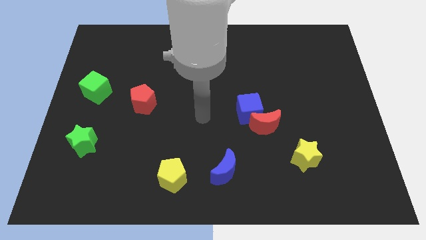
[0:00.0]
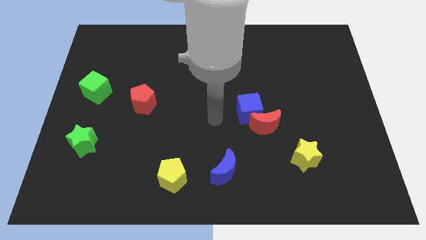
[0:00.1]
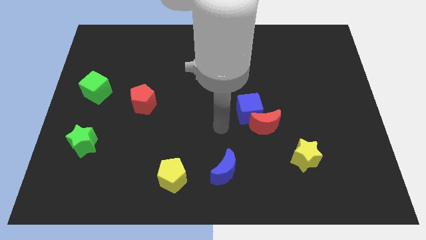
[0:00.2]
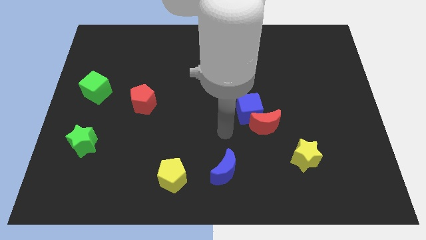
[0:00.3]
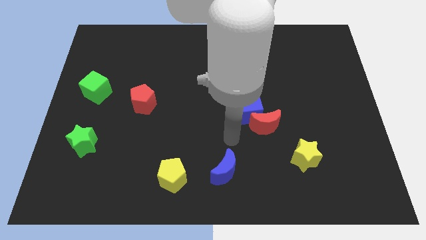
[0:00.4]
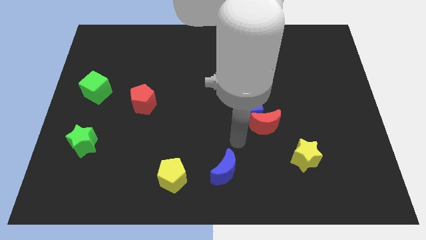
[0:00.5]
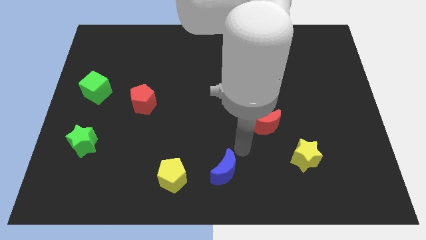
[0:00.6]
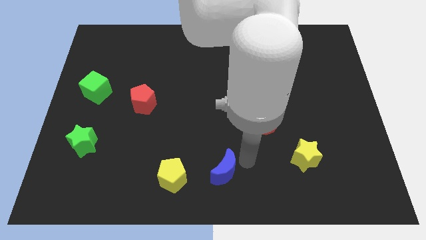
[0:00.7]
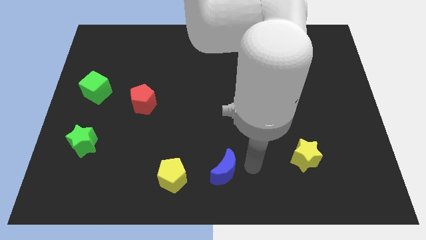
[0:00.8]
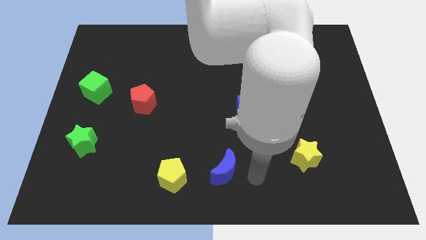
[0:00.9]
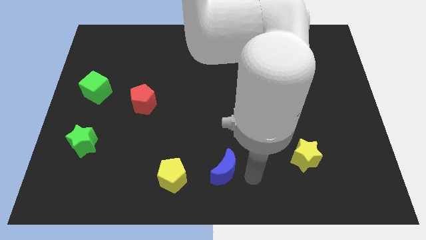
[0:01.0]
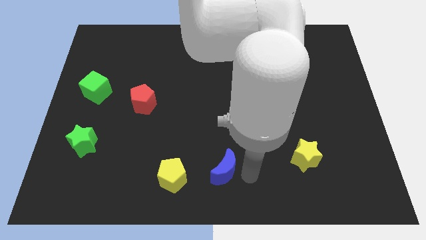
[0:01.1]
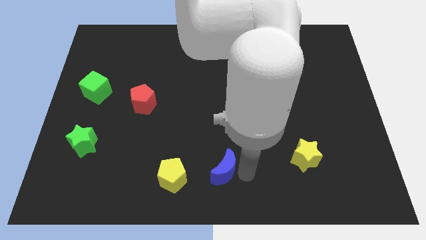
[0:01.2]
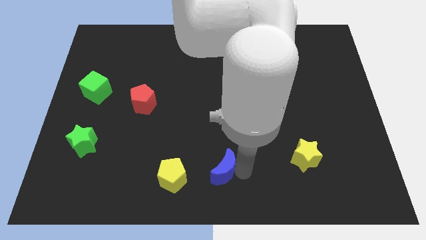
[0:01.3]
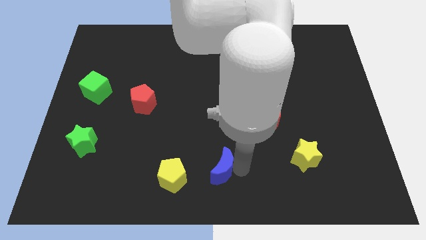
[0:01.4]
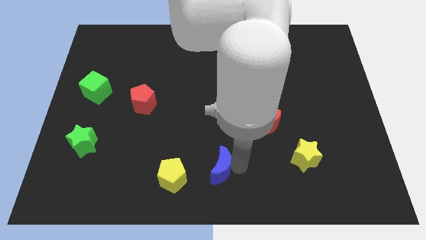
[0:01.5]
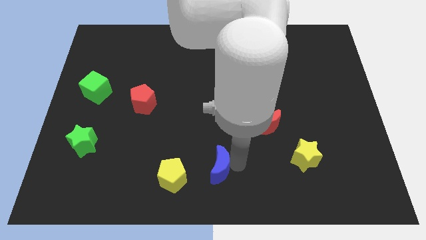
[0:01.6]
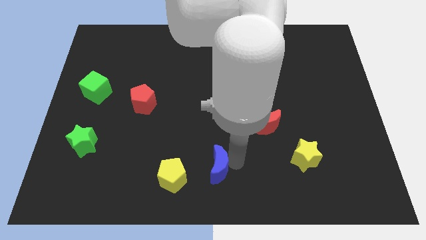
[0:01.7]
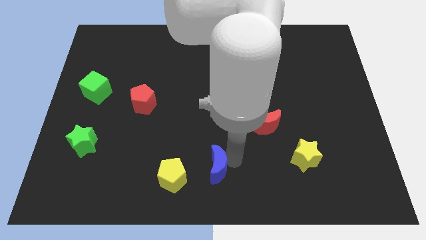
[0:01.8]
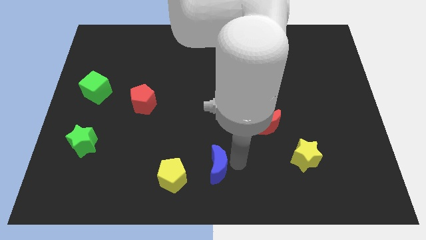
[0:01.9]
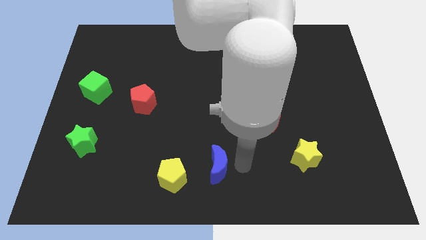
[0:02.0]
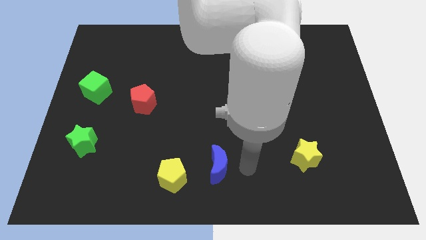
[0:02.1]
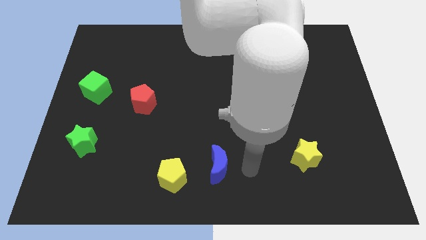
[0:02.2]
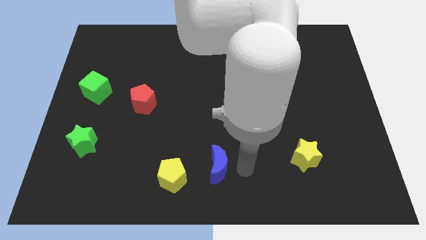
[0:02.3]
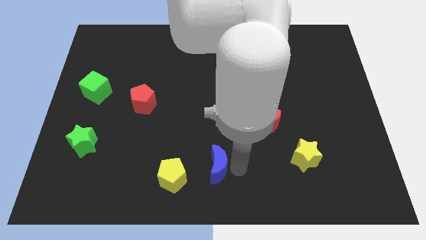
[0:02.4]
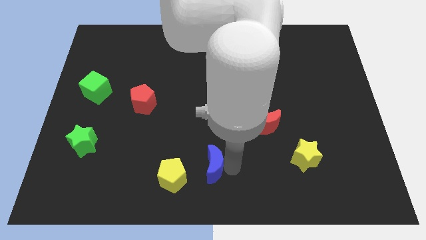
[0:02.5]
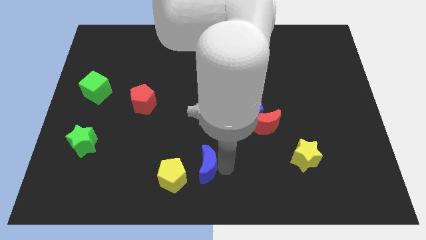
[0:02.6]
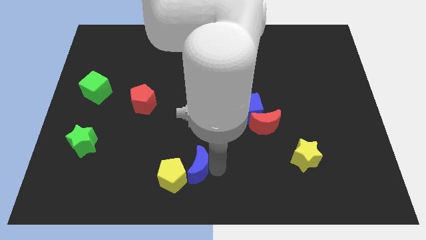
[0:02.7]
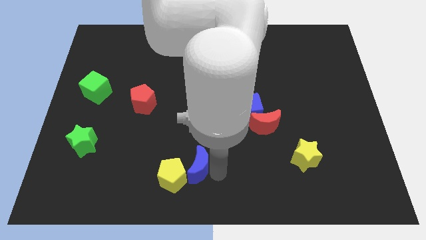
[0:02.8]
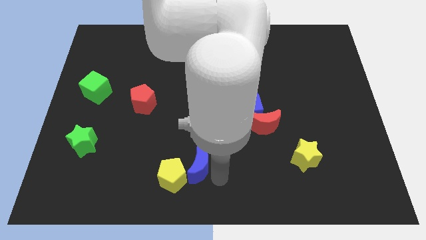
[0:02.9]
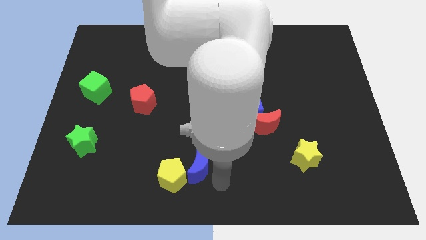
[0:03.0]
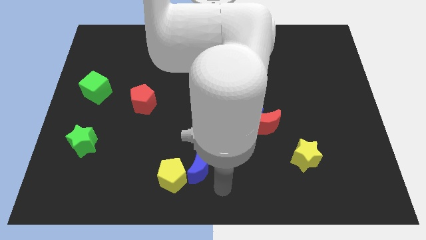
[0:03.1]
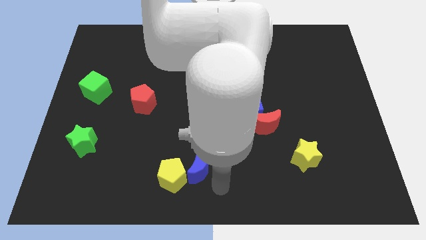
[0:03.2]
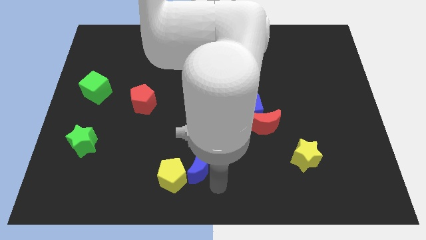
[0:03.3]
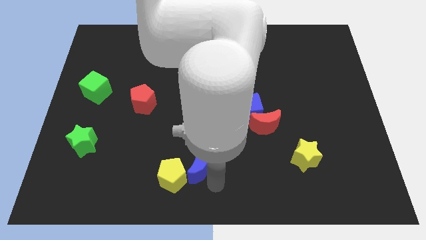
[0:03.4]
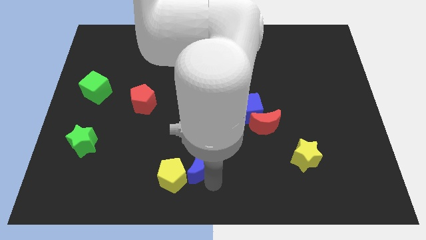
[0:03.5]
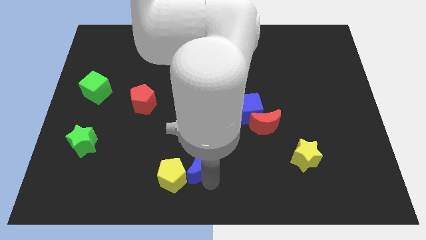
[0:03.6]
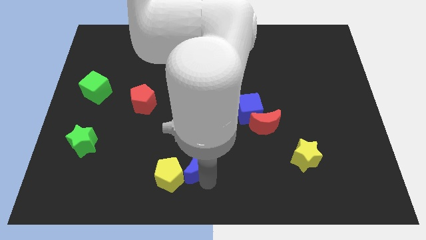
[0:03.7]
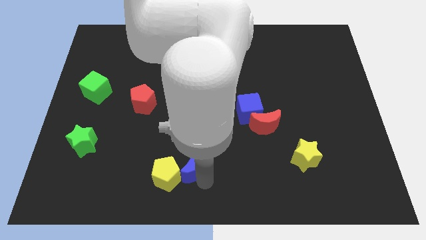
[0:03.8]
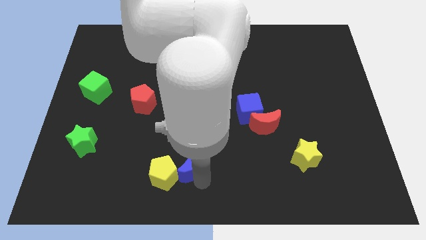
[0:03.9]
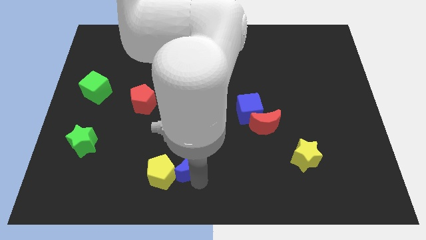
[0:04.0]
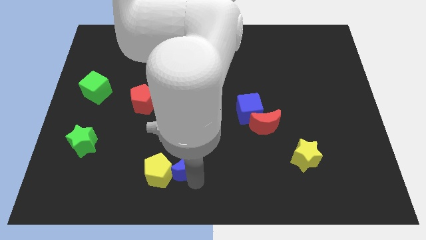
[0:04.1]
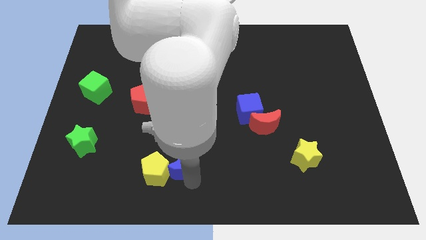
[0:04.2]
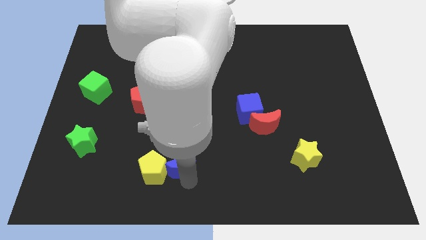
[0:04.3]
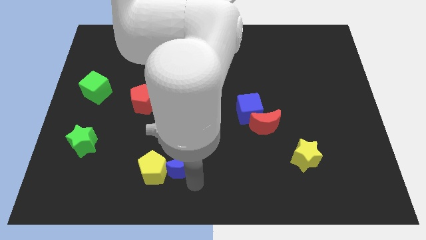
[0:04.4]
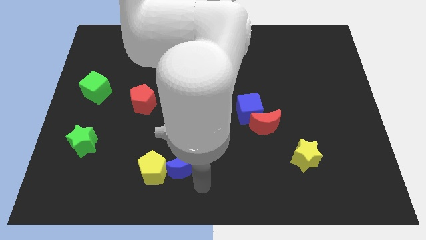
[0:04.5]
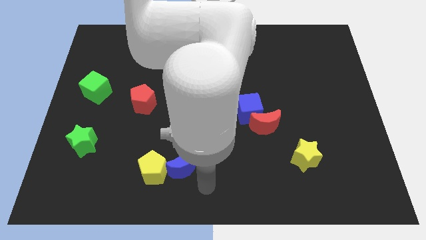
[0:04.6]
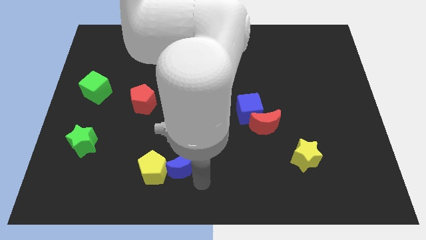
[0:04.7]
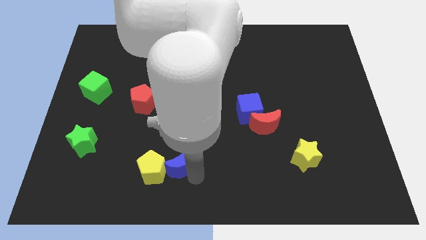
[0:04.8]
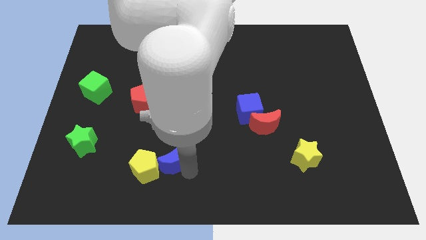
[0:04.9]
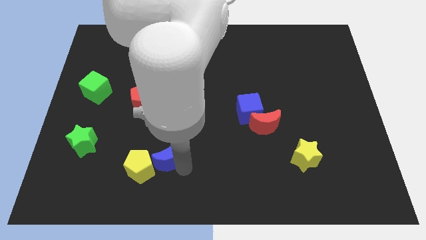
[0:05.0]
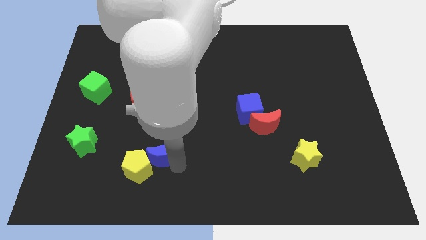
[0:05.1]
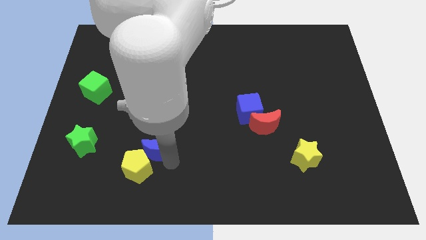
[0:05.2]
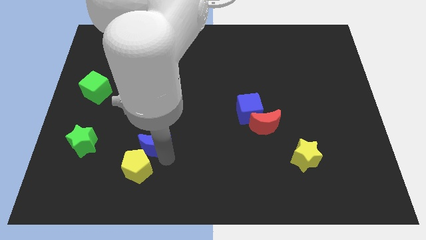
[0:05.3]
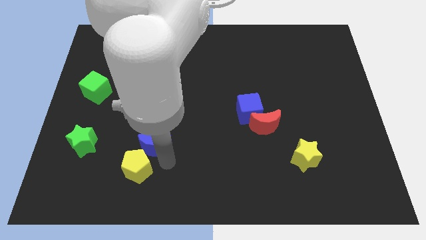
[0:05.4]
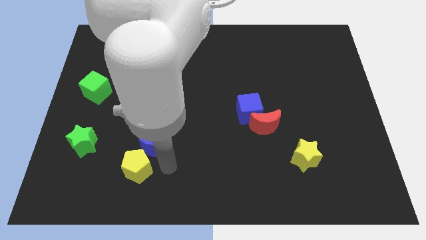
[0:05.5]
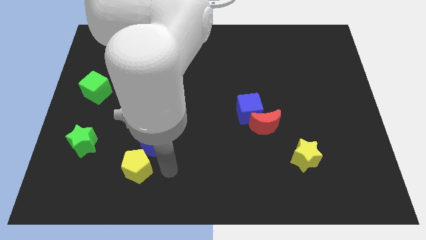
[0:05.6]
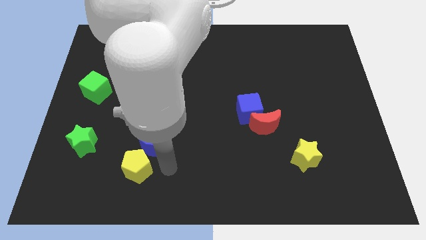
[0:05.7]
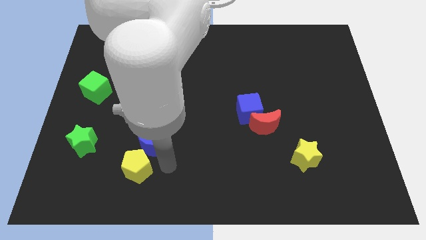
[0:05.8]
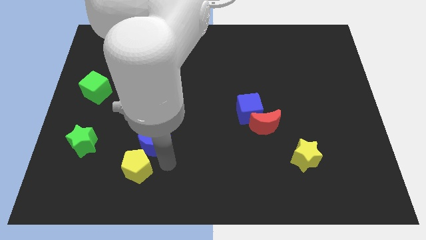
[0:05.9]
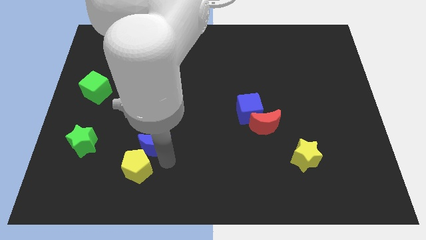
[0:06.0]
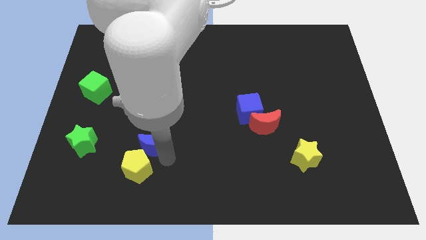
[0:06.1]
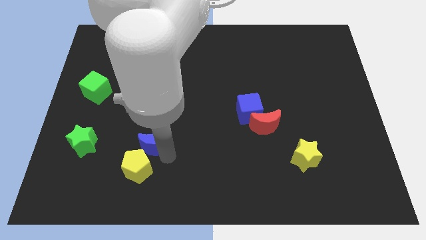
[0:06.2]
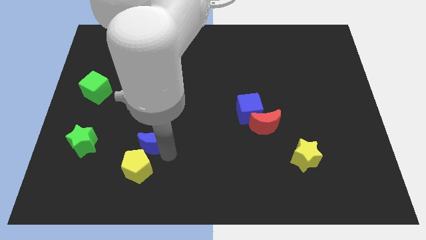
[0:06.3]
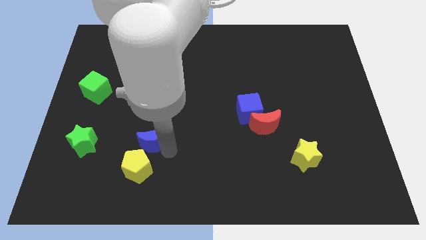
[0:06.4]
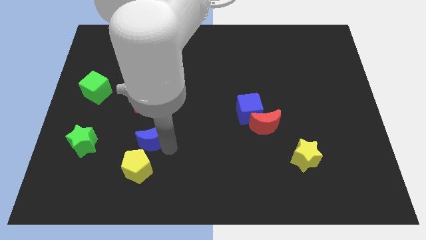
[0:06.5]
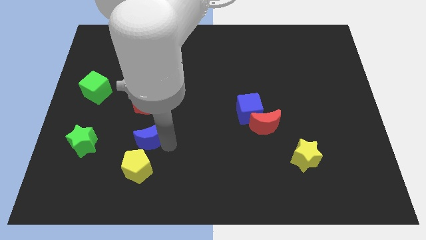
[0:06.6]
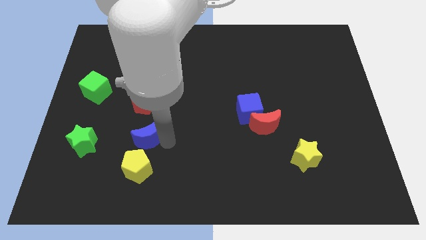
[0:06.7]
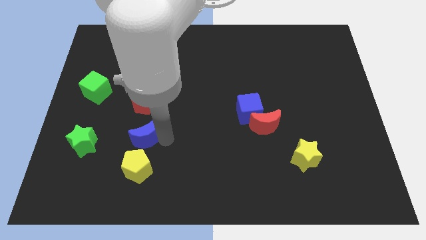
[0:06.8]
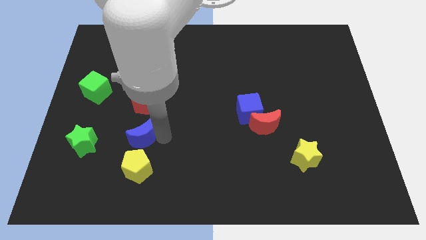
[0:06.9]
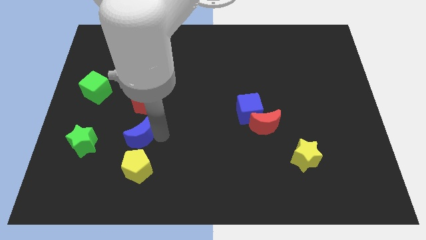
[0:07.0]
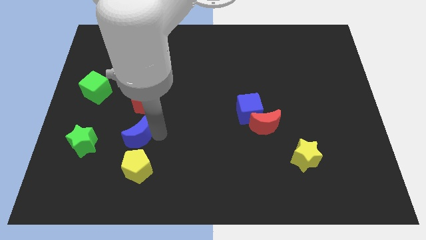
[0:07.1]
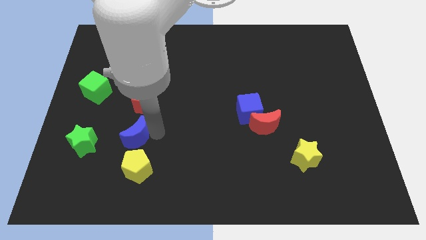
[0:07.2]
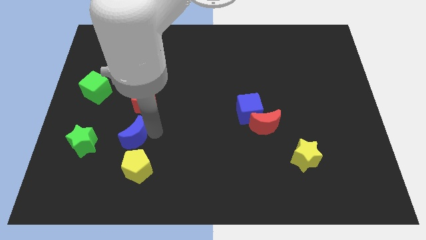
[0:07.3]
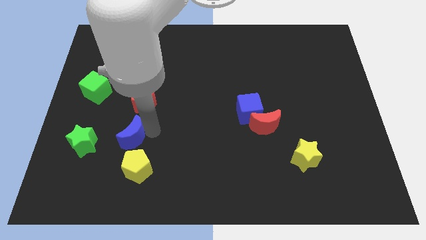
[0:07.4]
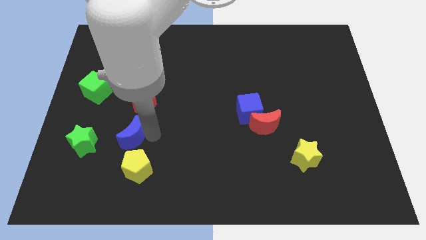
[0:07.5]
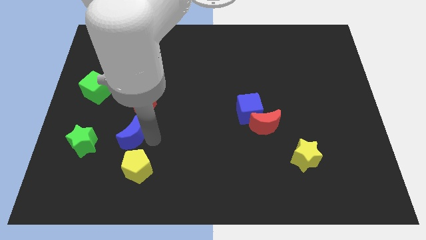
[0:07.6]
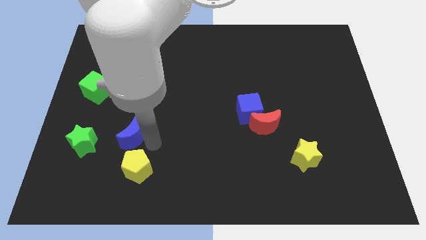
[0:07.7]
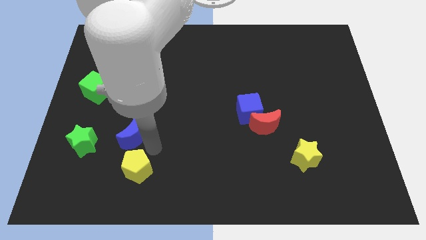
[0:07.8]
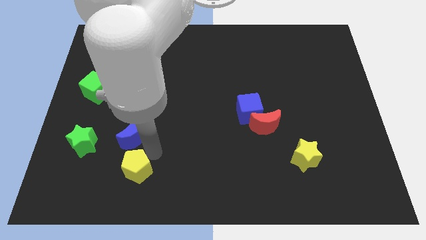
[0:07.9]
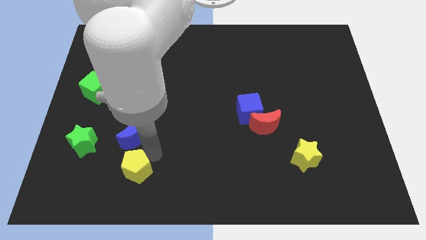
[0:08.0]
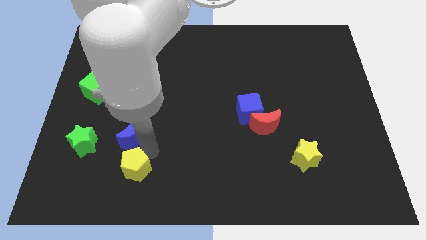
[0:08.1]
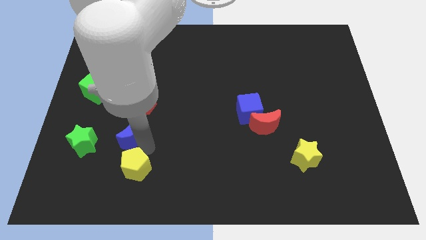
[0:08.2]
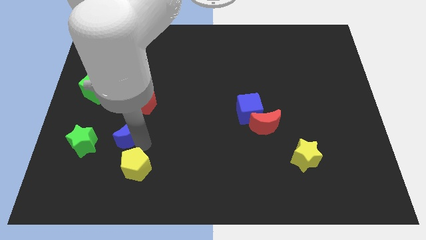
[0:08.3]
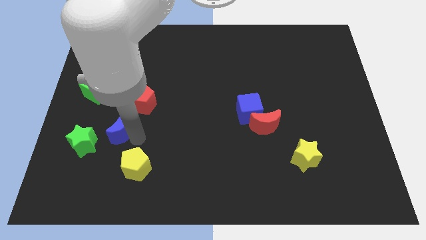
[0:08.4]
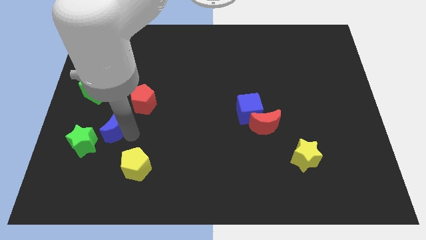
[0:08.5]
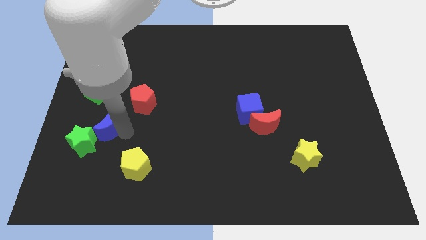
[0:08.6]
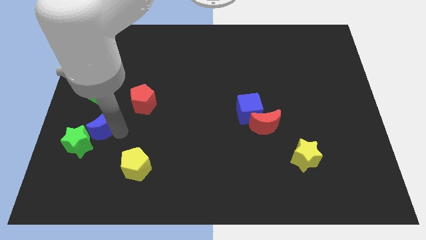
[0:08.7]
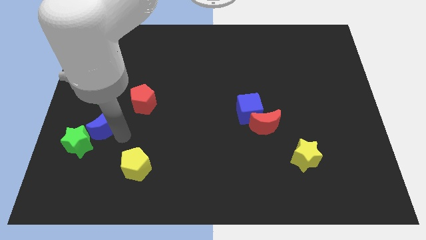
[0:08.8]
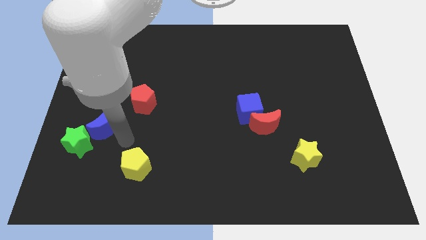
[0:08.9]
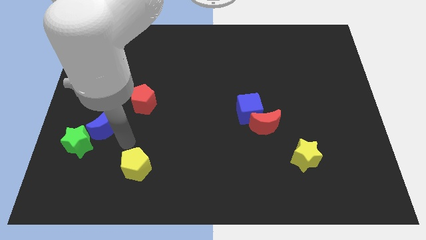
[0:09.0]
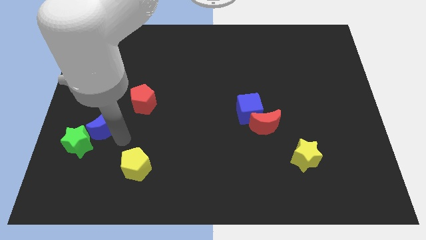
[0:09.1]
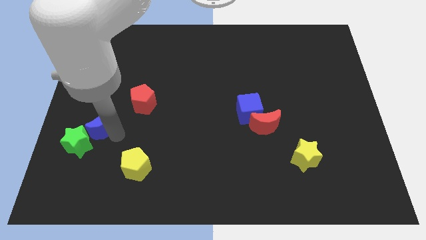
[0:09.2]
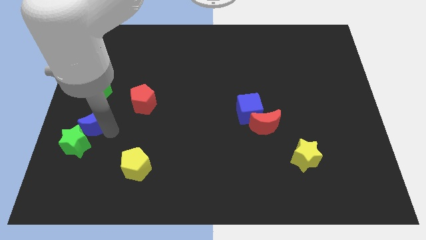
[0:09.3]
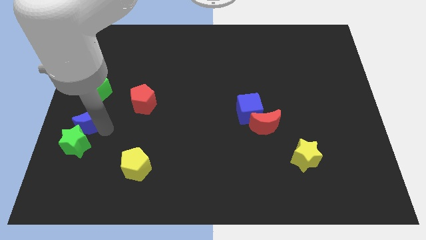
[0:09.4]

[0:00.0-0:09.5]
put the blue moon to the center left
